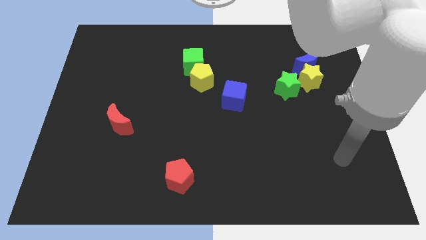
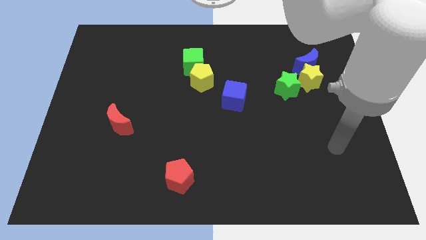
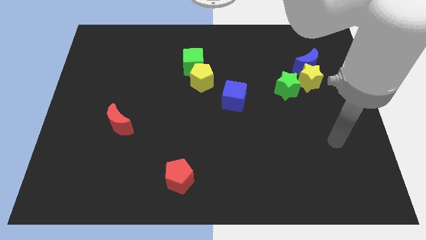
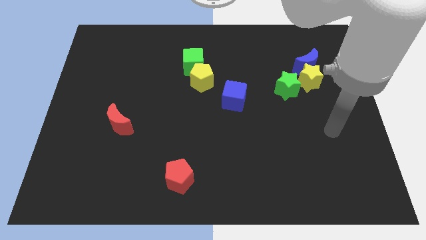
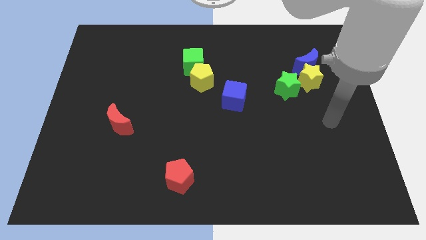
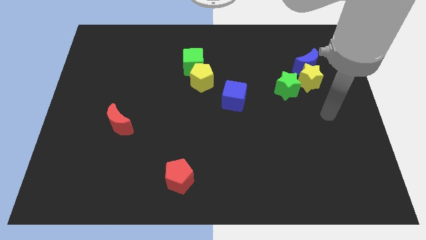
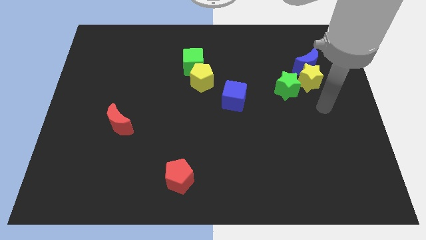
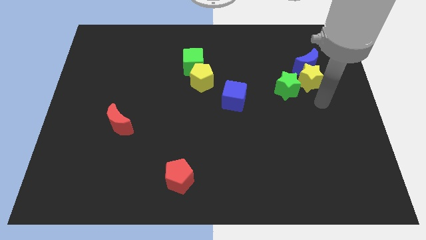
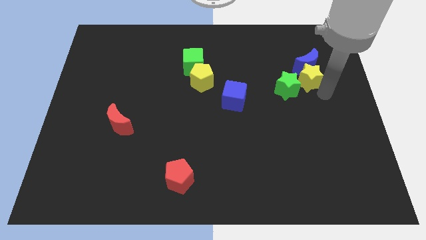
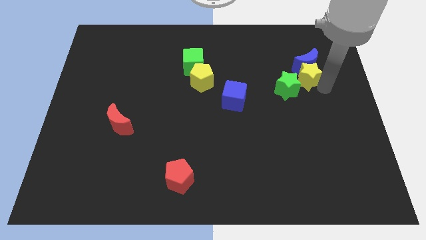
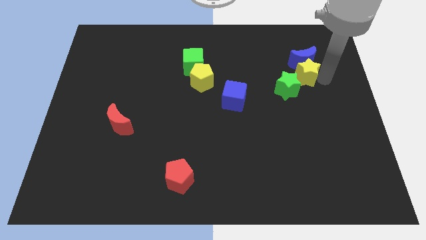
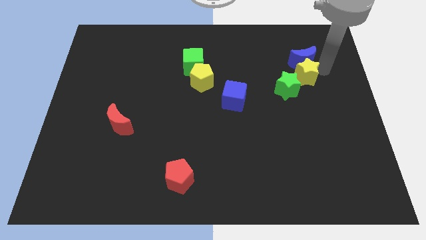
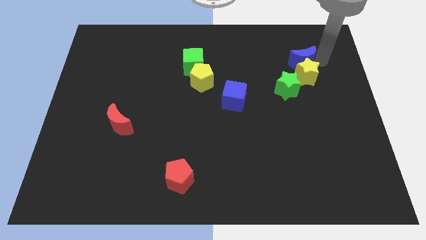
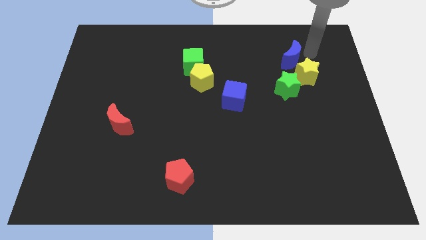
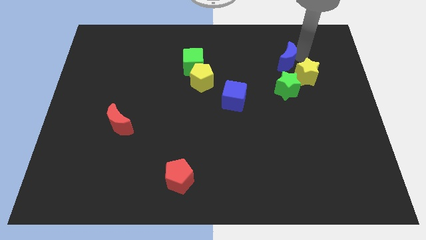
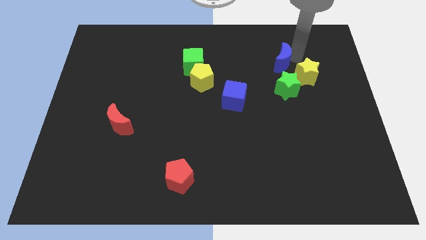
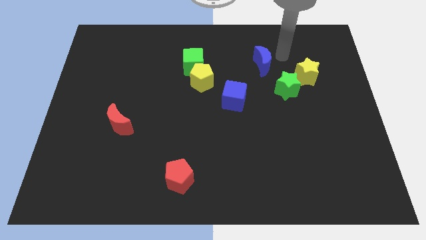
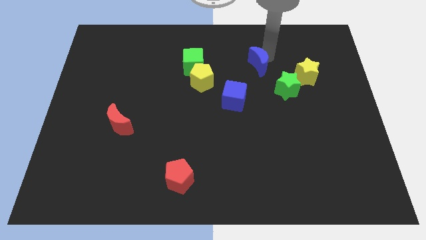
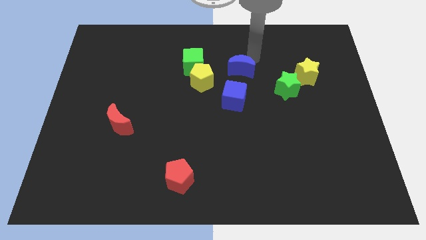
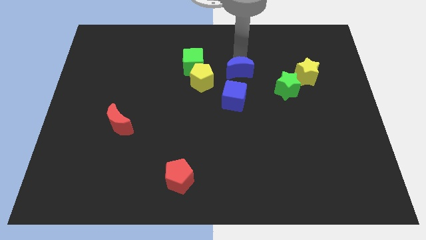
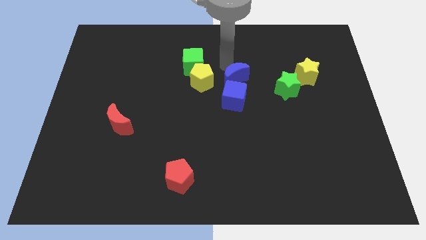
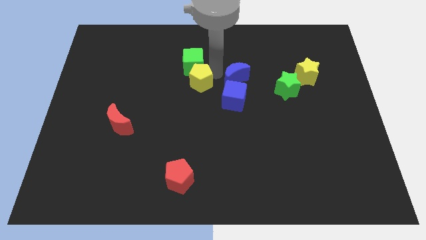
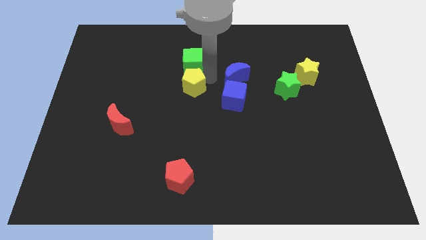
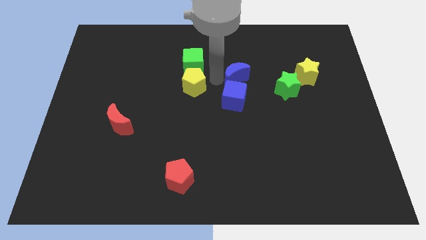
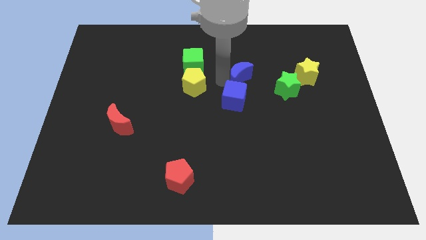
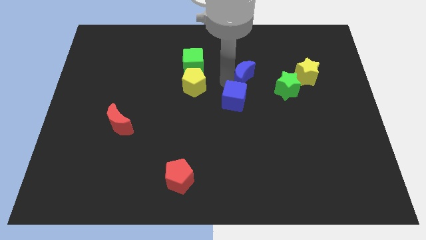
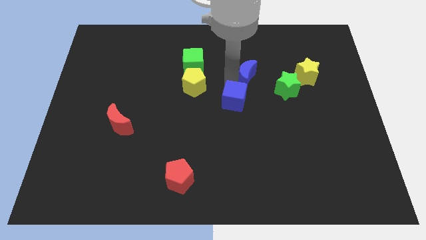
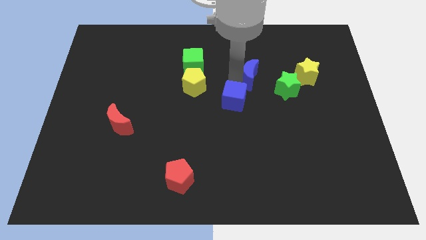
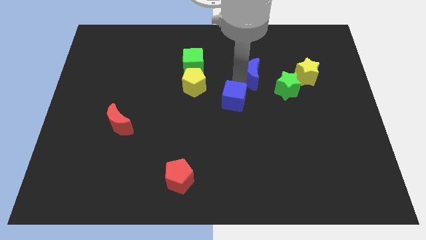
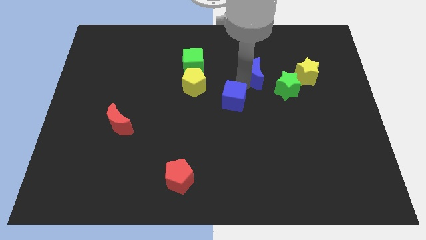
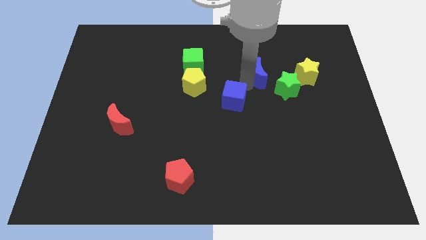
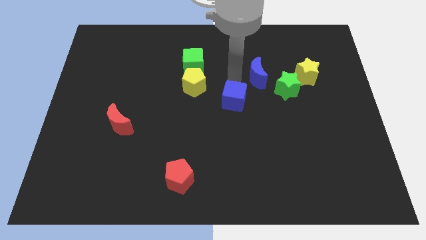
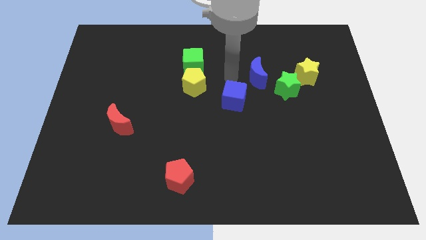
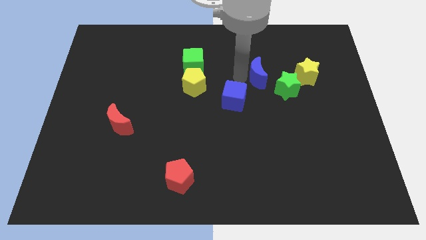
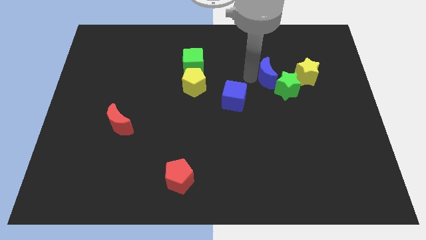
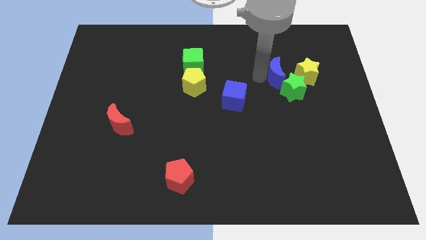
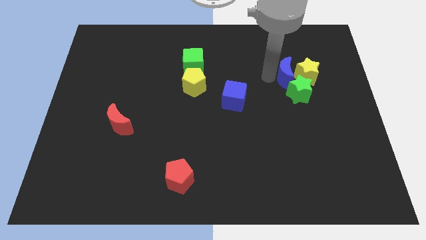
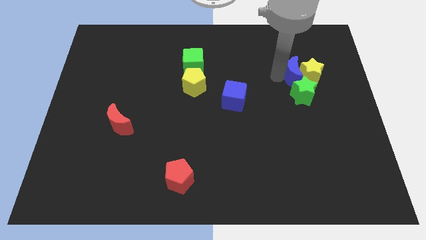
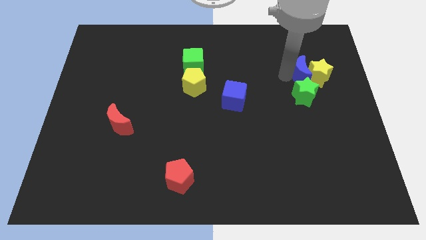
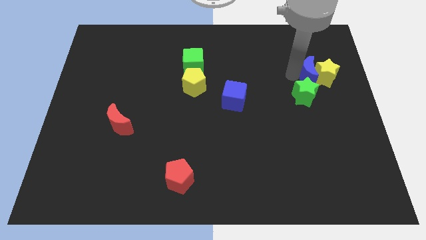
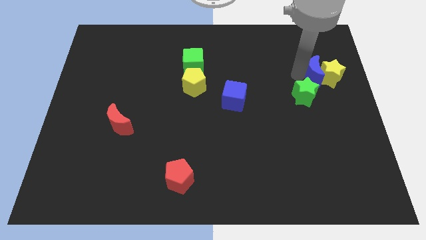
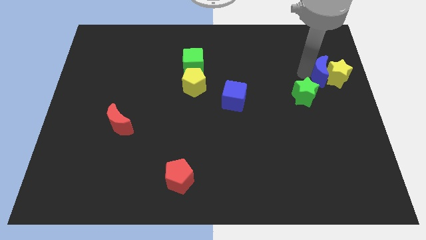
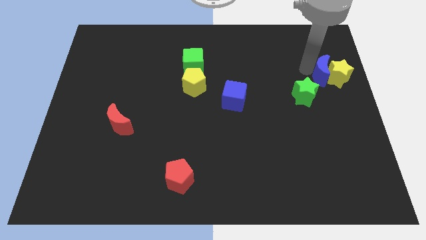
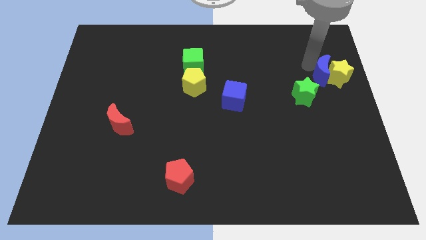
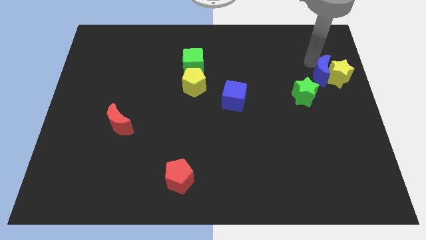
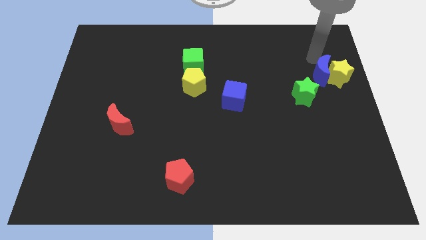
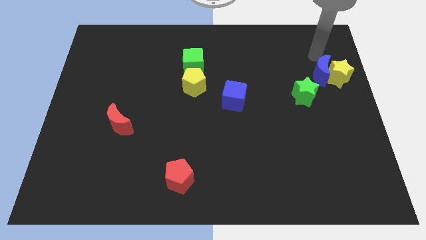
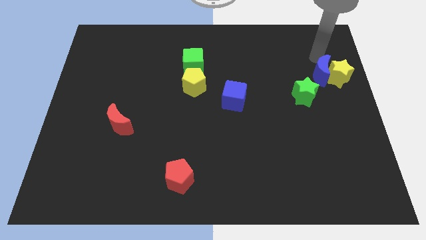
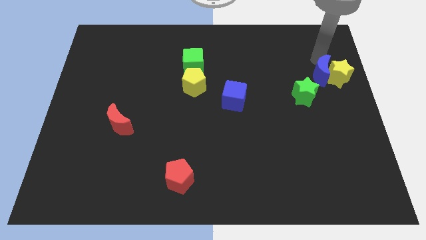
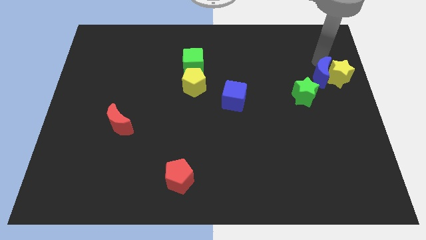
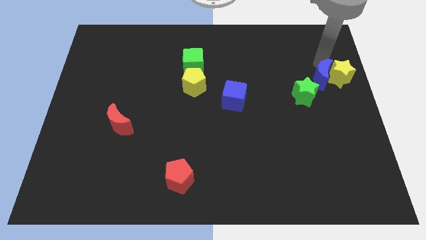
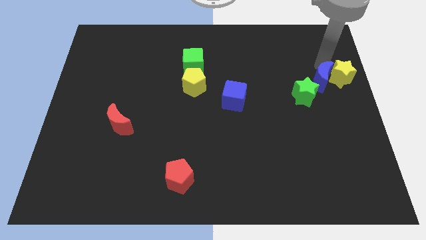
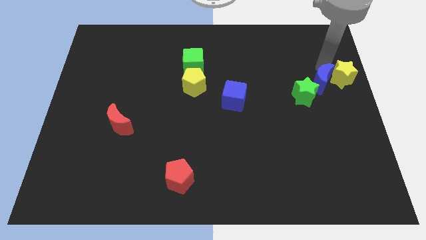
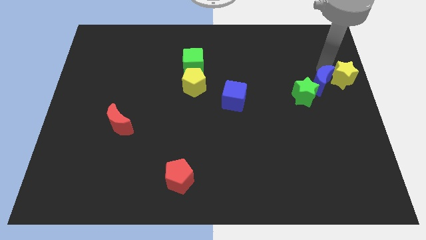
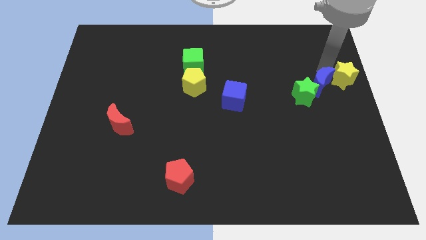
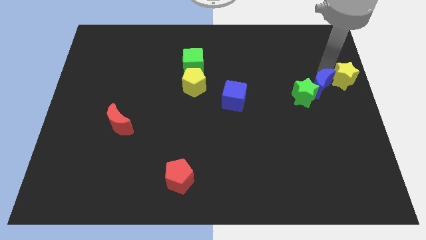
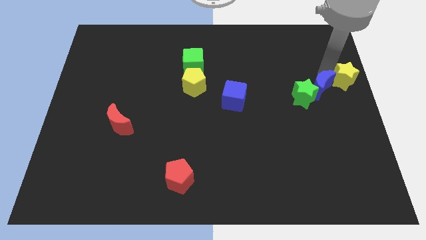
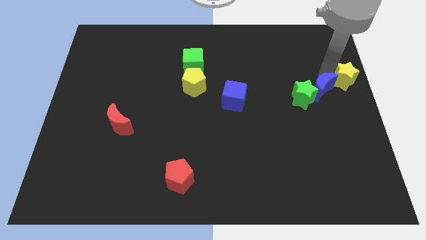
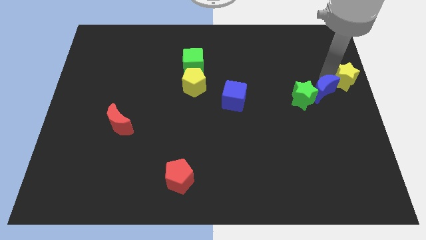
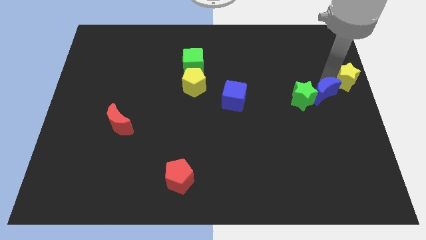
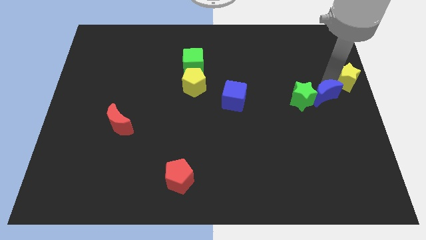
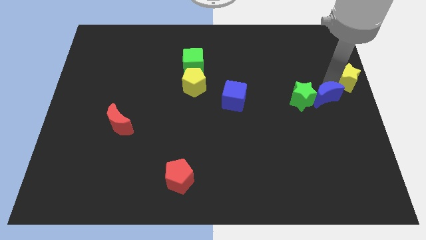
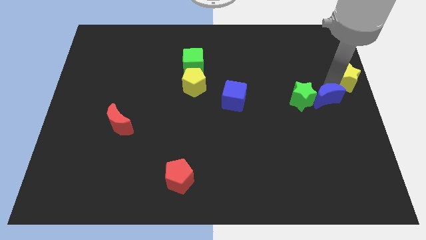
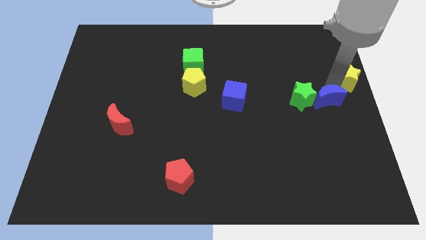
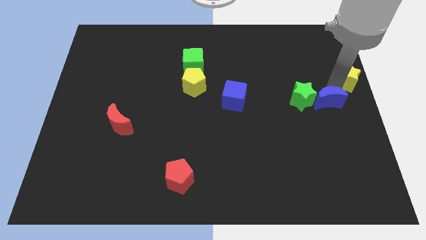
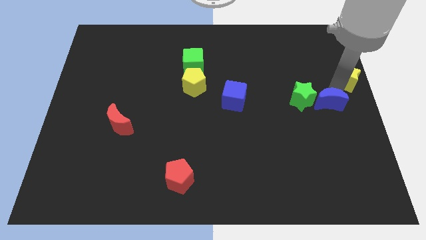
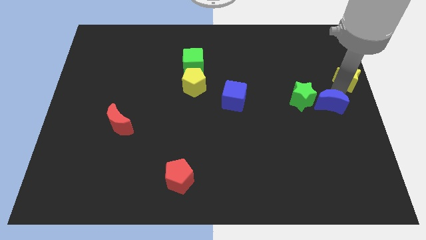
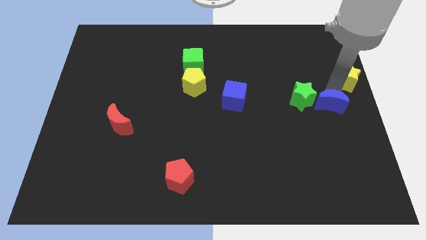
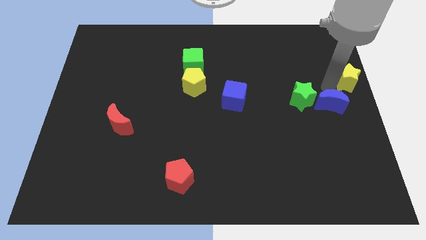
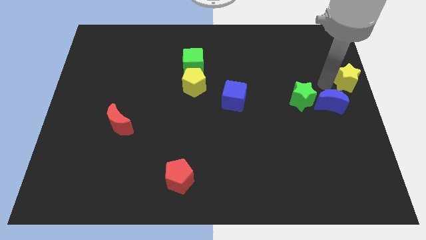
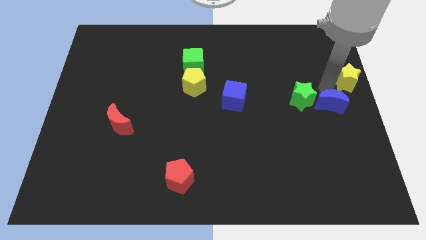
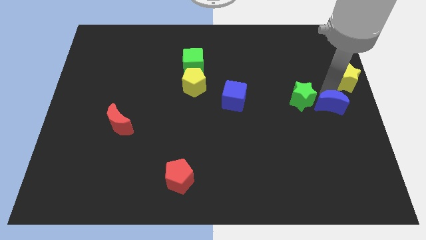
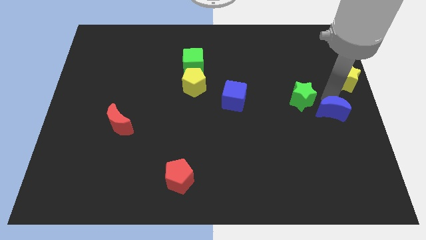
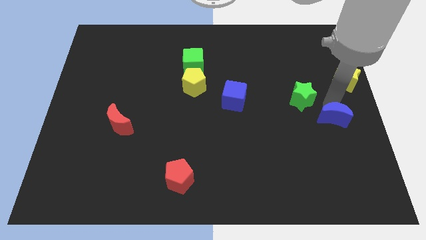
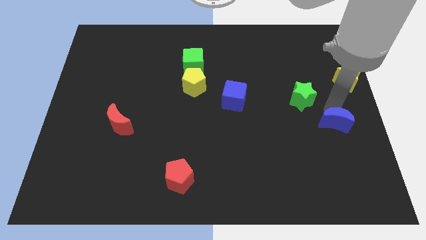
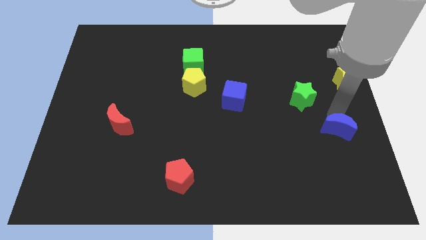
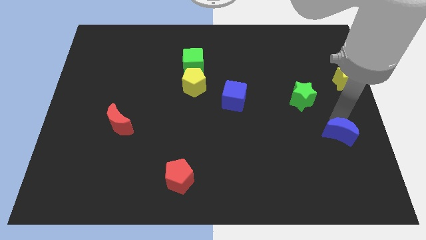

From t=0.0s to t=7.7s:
slide the blue moon downwards
